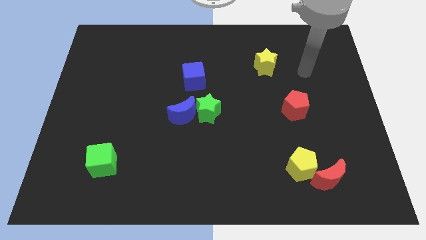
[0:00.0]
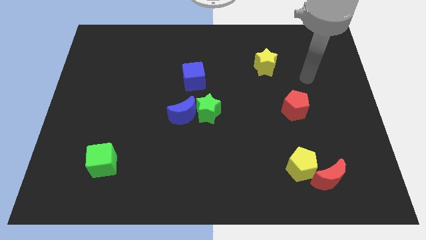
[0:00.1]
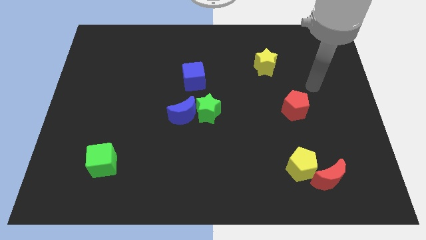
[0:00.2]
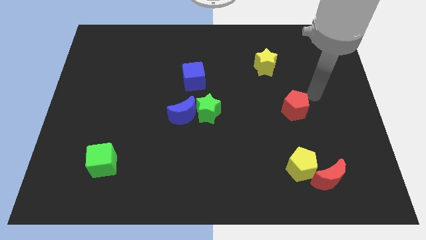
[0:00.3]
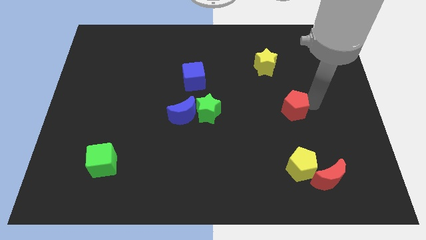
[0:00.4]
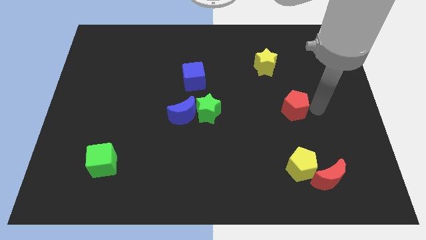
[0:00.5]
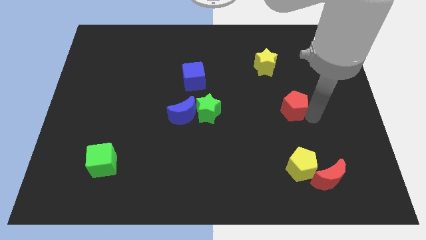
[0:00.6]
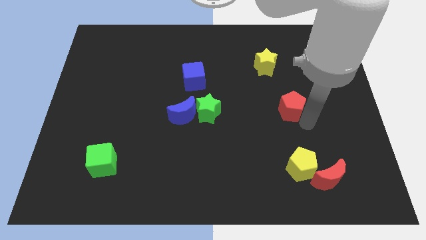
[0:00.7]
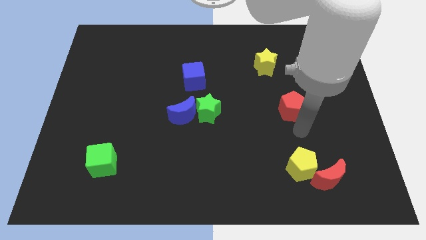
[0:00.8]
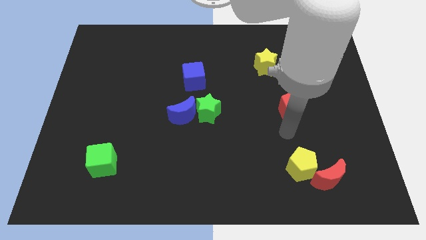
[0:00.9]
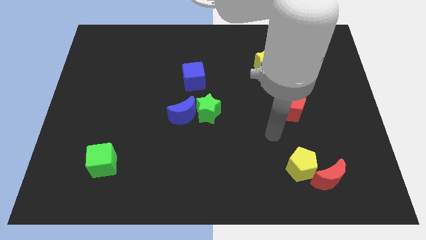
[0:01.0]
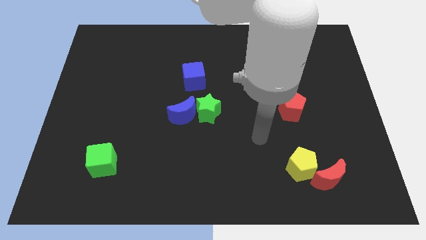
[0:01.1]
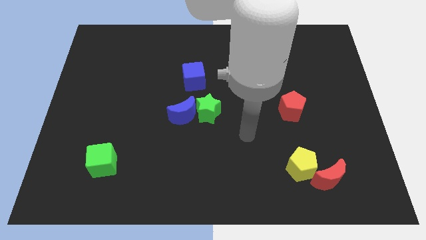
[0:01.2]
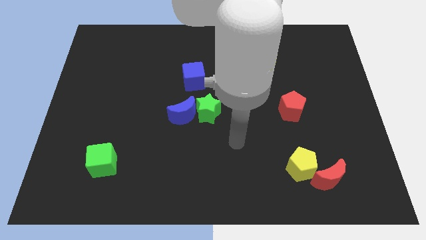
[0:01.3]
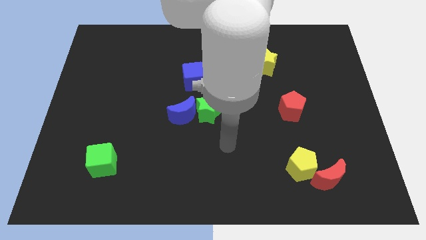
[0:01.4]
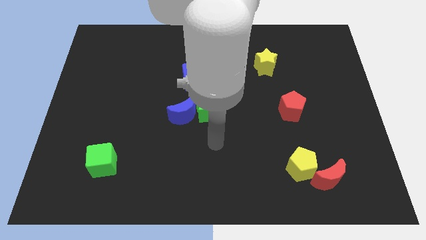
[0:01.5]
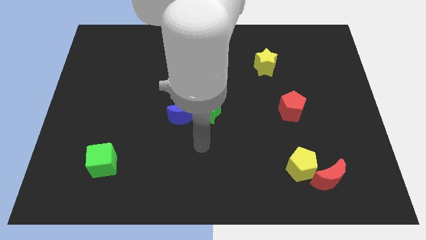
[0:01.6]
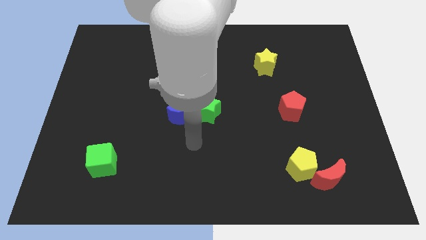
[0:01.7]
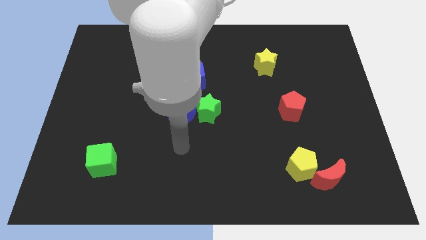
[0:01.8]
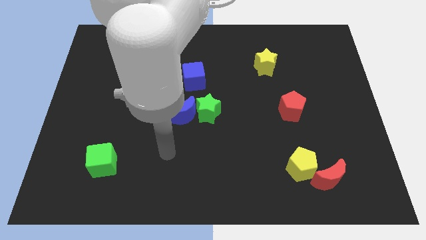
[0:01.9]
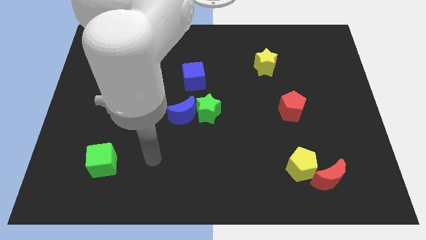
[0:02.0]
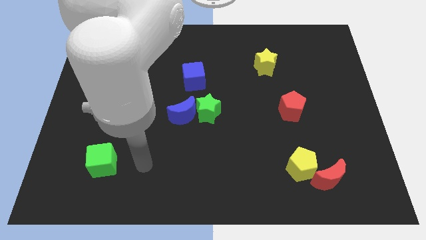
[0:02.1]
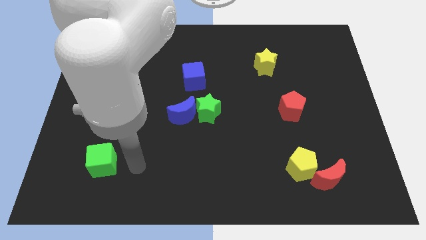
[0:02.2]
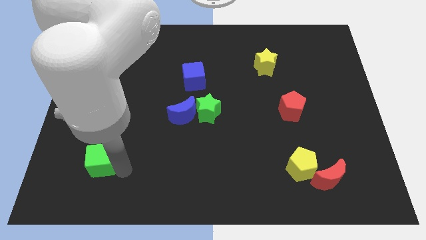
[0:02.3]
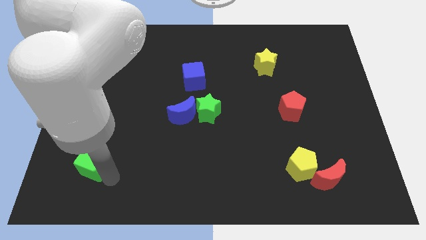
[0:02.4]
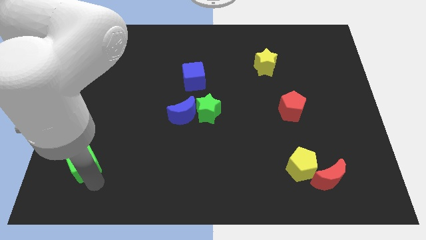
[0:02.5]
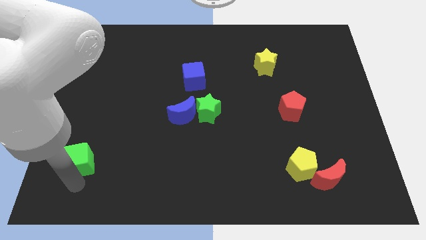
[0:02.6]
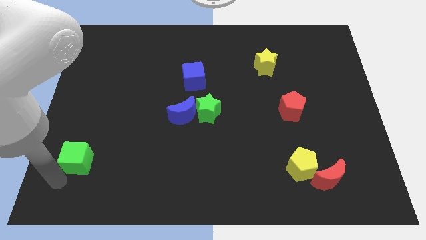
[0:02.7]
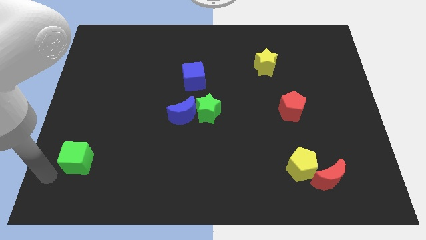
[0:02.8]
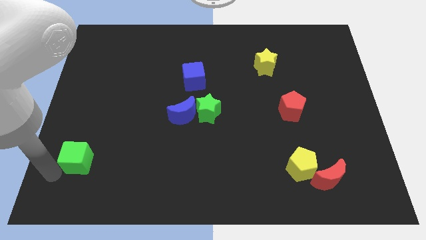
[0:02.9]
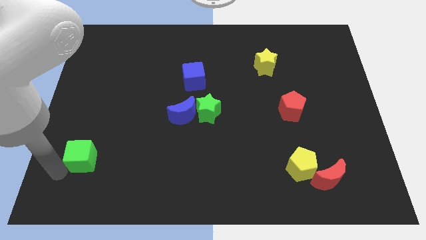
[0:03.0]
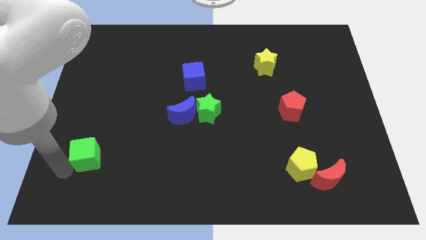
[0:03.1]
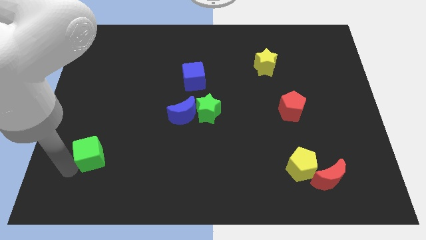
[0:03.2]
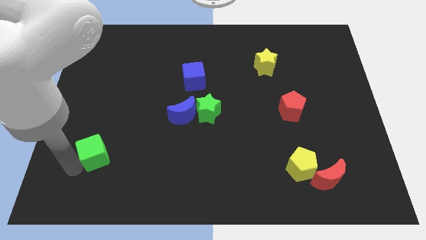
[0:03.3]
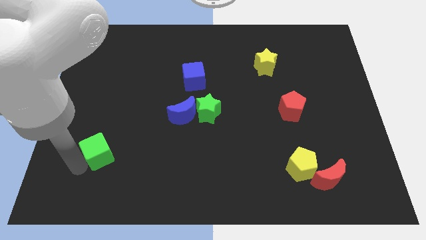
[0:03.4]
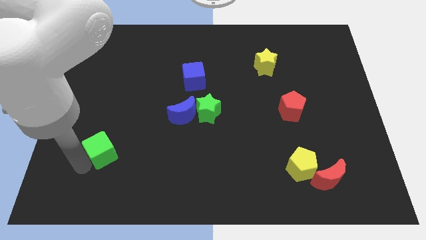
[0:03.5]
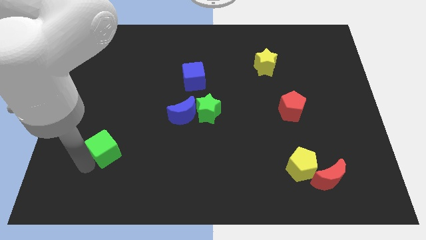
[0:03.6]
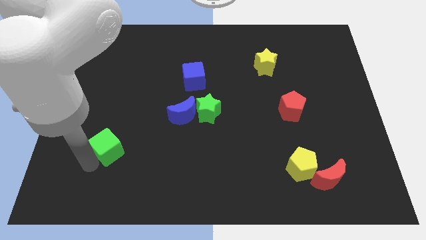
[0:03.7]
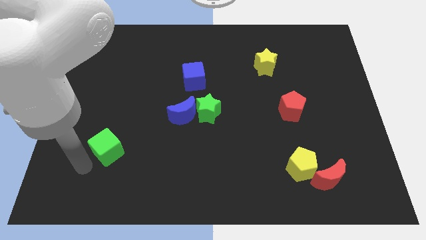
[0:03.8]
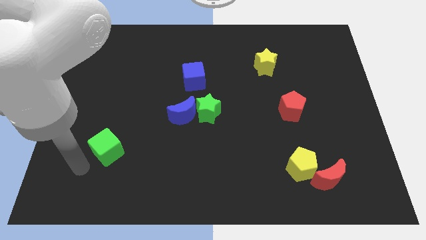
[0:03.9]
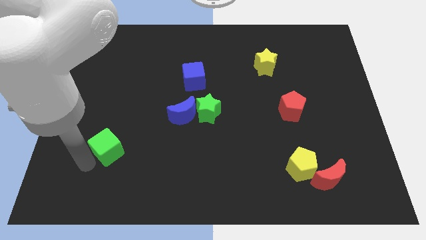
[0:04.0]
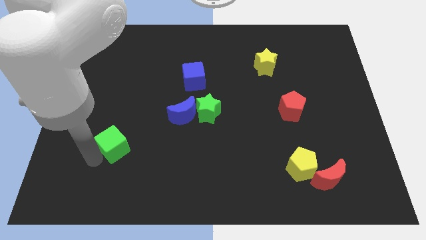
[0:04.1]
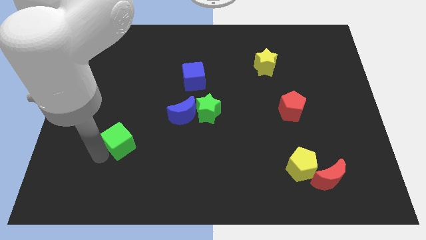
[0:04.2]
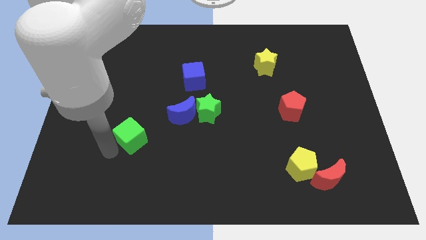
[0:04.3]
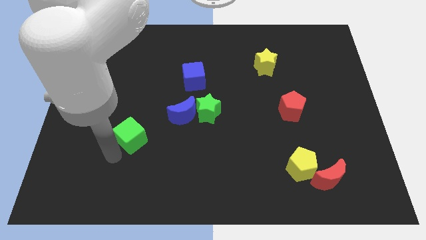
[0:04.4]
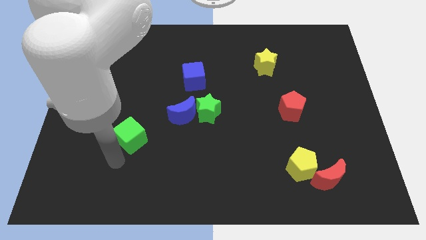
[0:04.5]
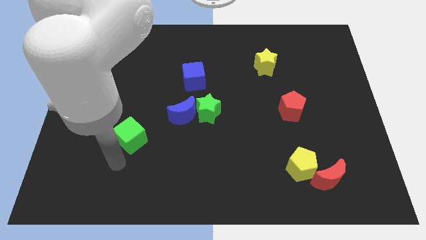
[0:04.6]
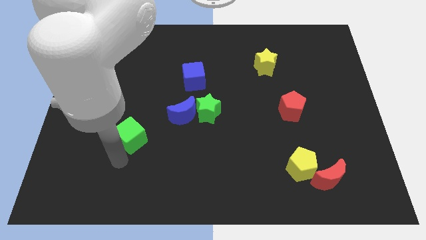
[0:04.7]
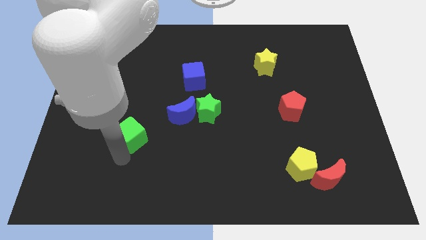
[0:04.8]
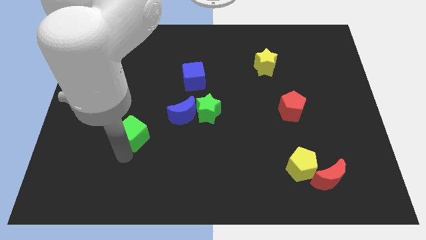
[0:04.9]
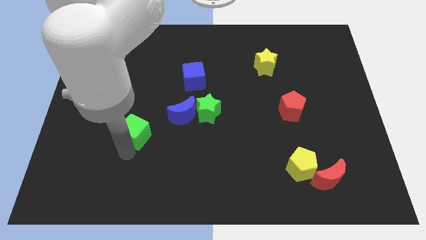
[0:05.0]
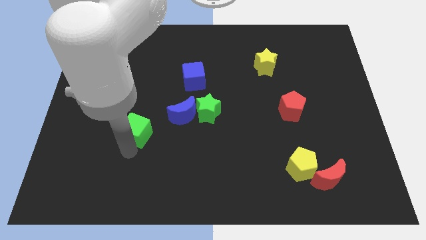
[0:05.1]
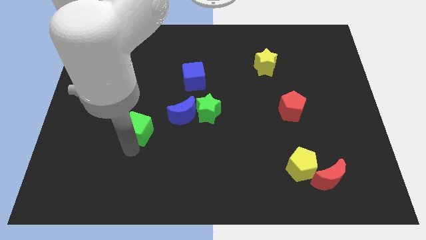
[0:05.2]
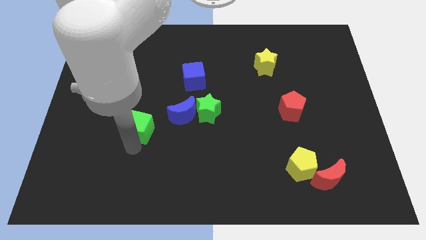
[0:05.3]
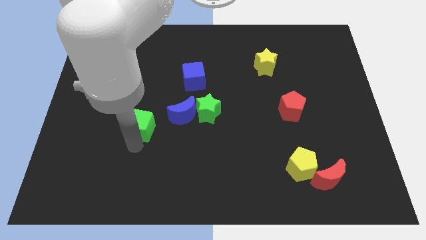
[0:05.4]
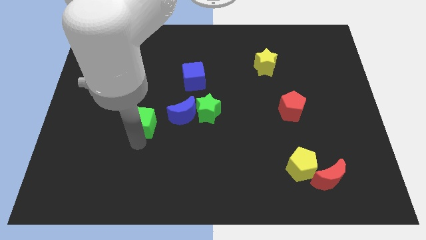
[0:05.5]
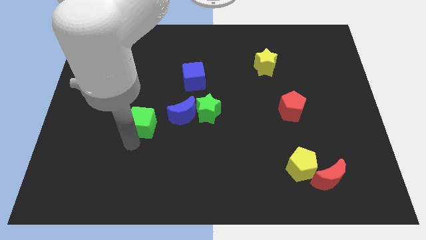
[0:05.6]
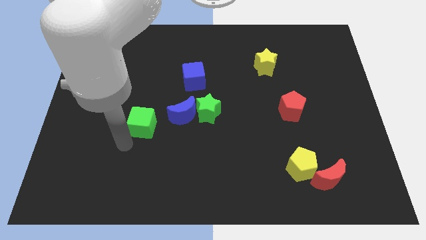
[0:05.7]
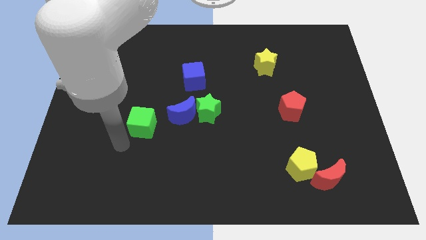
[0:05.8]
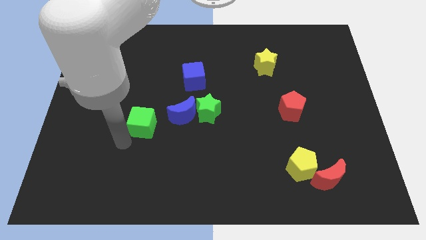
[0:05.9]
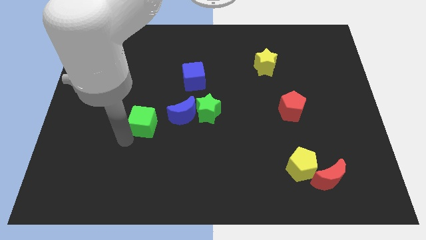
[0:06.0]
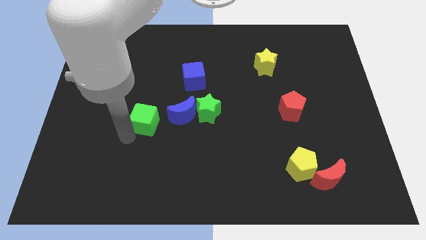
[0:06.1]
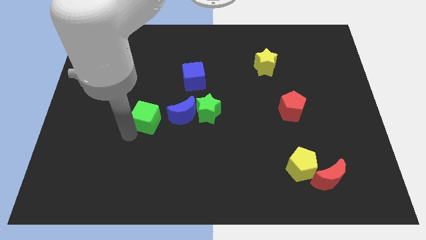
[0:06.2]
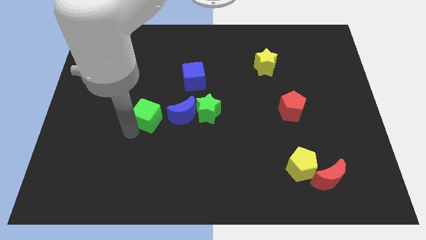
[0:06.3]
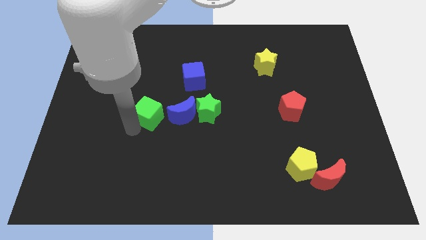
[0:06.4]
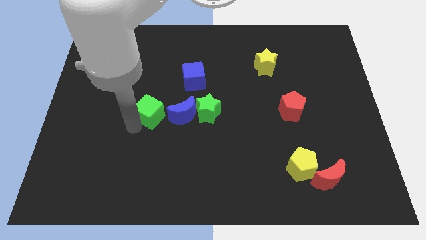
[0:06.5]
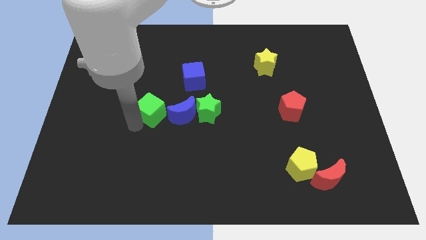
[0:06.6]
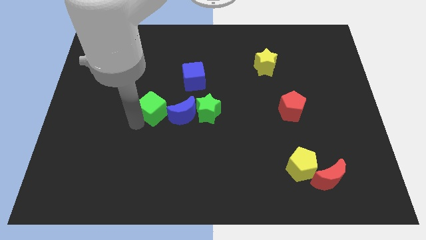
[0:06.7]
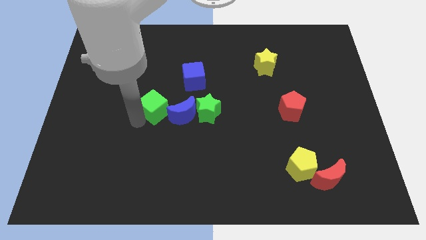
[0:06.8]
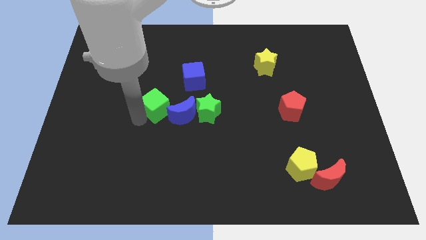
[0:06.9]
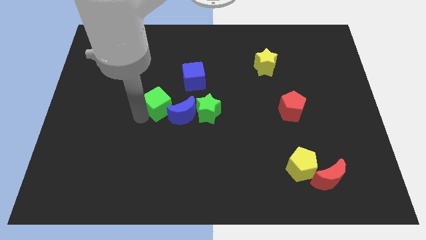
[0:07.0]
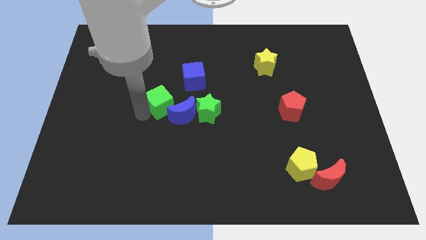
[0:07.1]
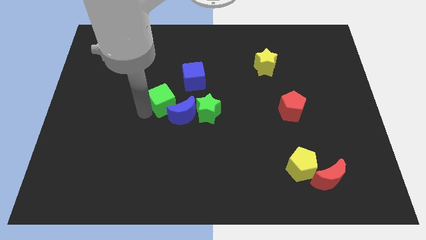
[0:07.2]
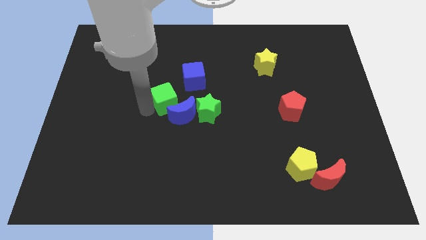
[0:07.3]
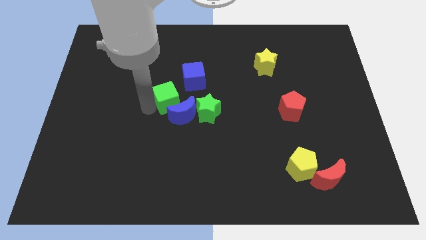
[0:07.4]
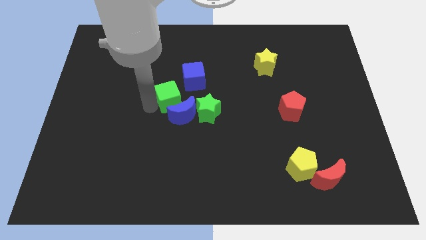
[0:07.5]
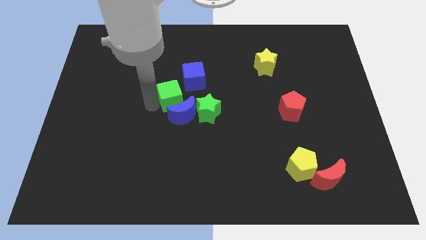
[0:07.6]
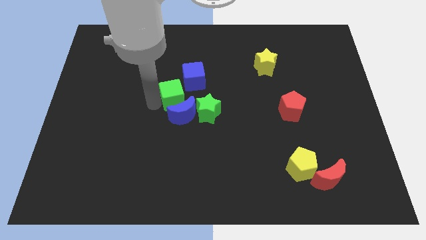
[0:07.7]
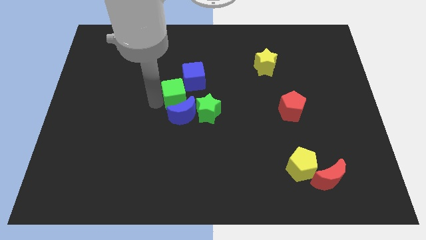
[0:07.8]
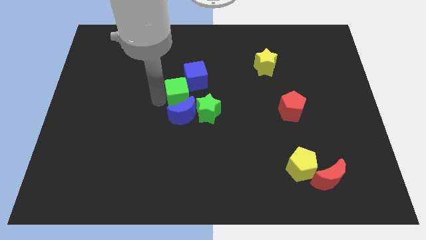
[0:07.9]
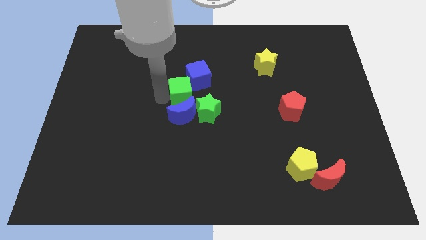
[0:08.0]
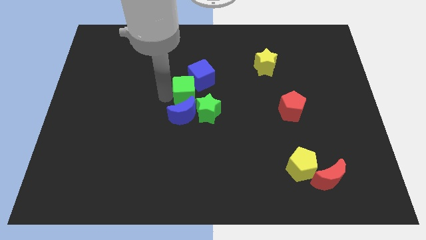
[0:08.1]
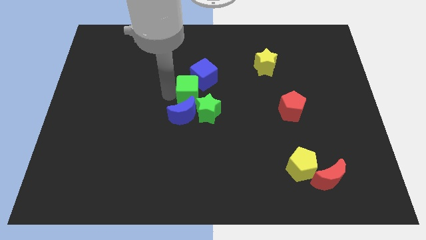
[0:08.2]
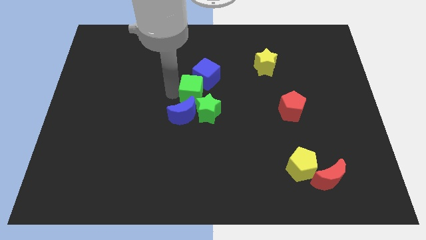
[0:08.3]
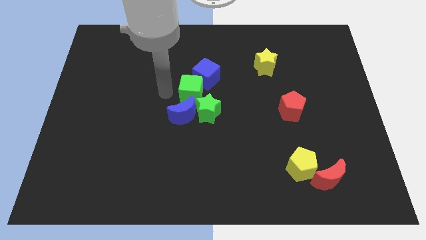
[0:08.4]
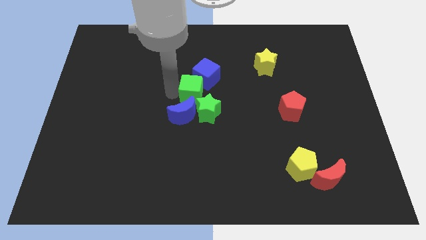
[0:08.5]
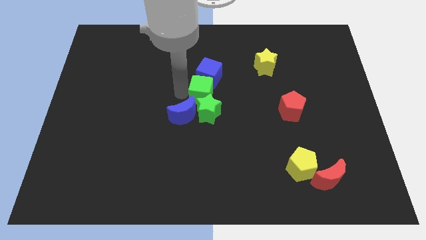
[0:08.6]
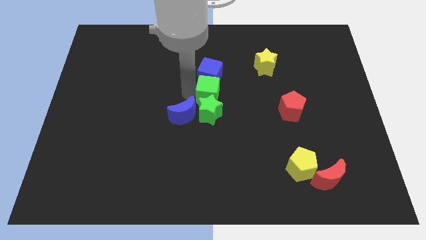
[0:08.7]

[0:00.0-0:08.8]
slide the green cube to the bottom right of the blue cube
